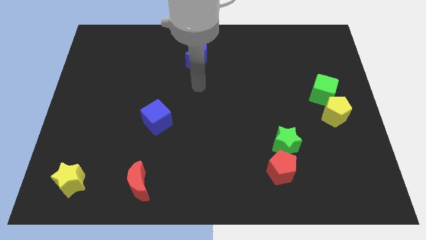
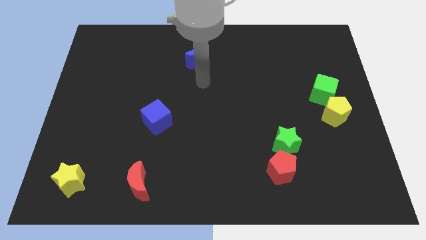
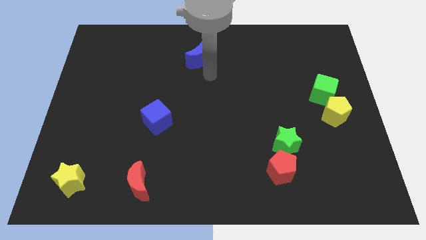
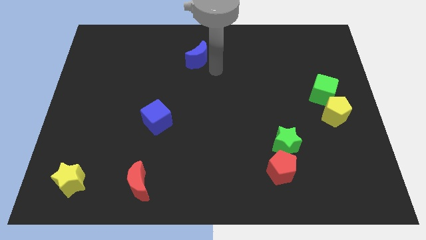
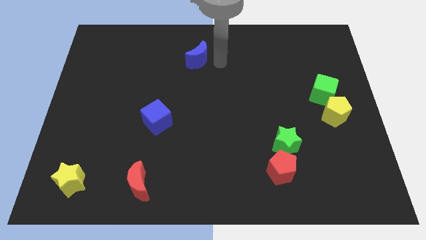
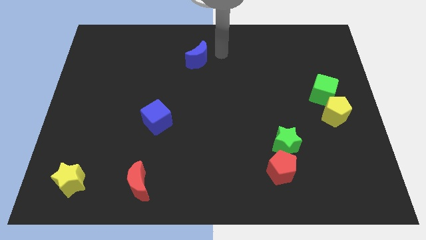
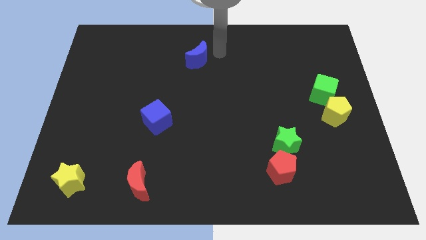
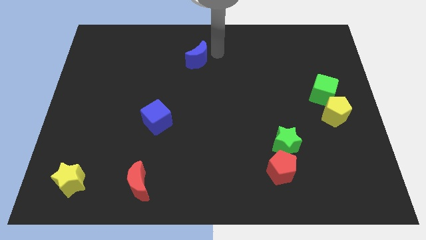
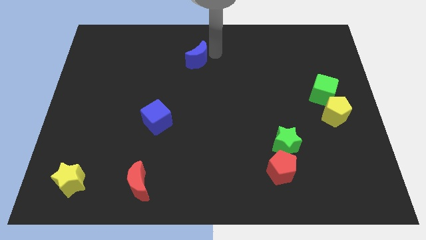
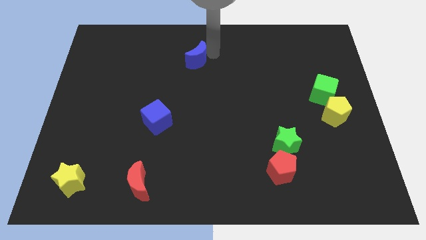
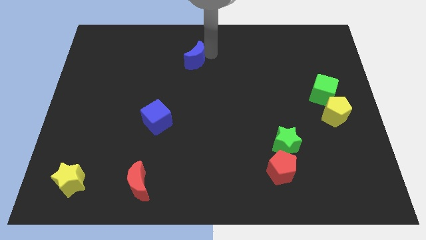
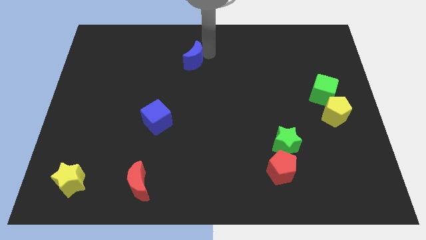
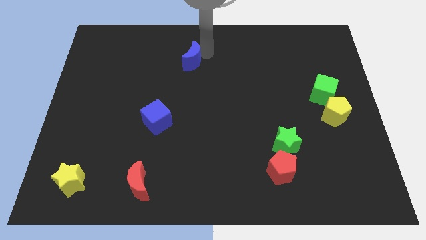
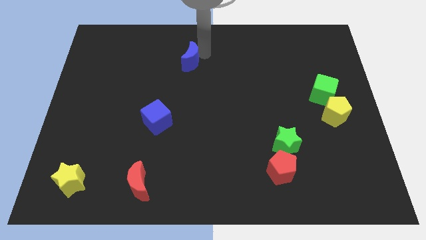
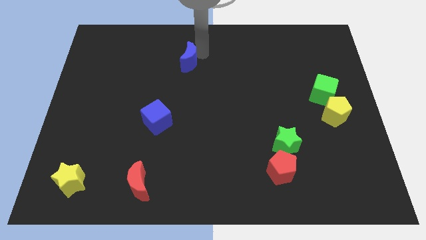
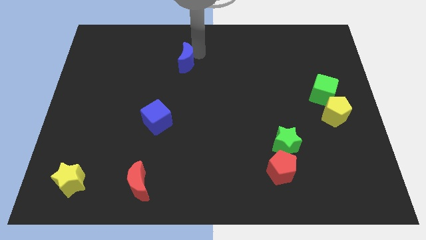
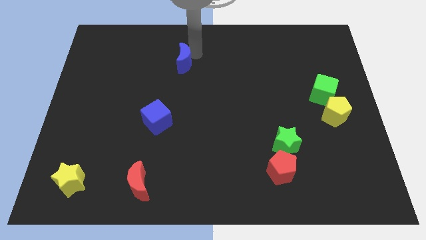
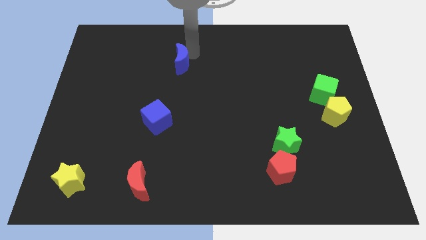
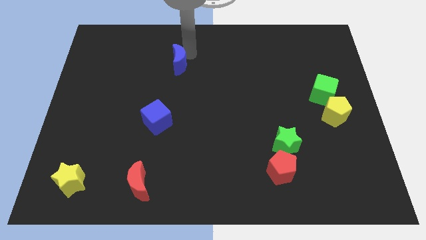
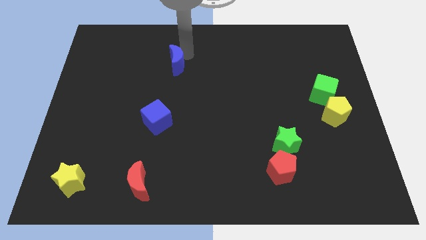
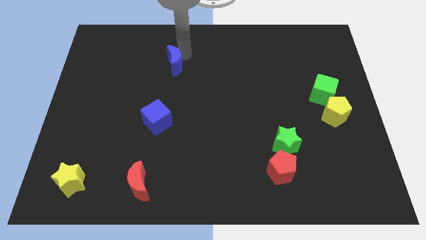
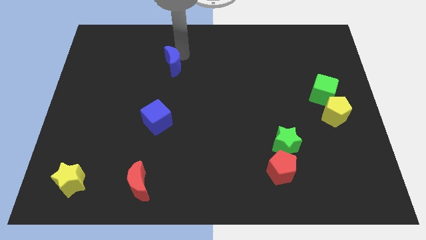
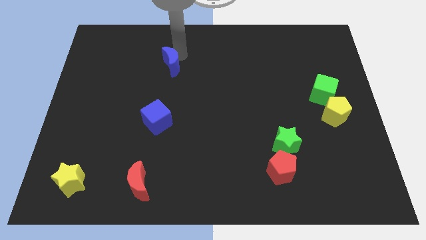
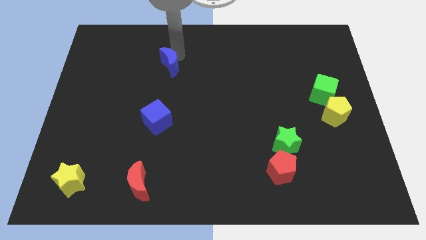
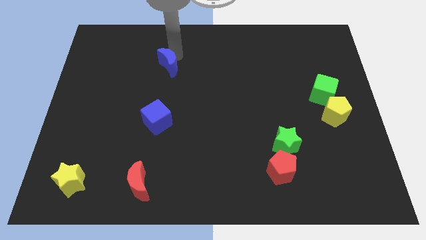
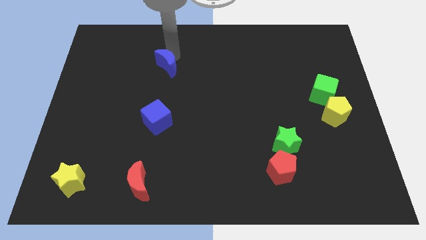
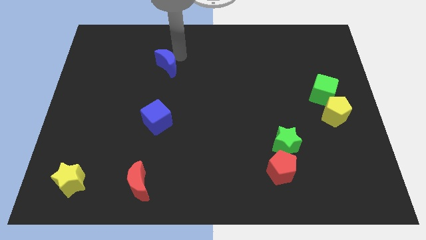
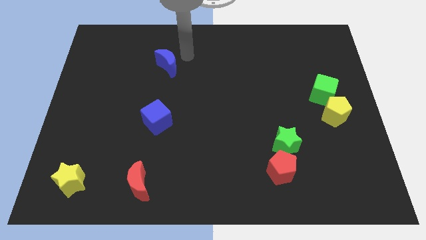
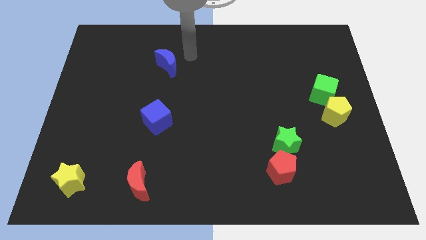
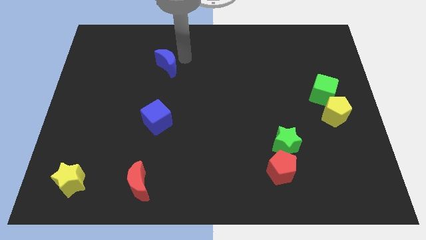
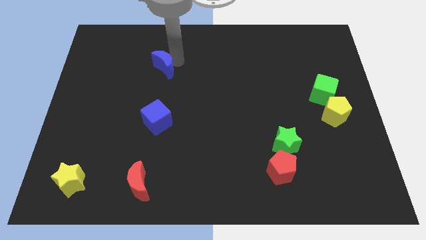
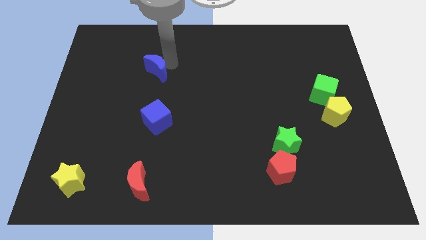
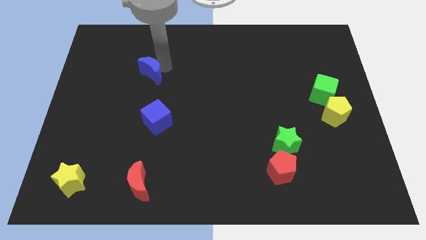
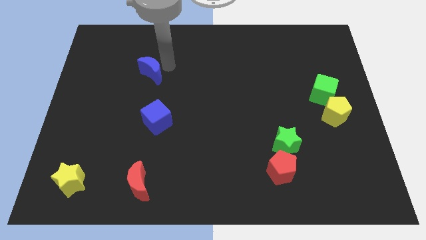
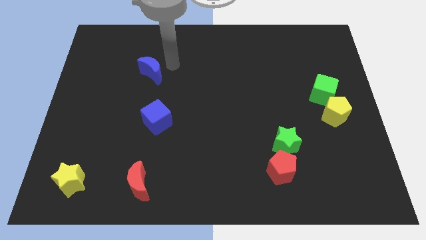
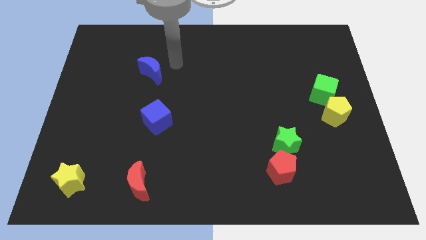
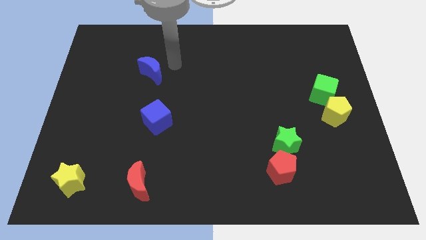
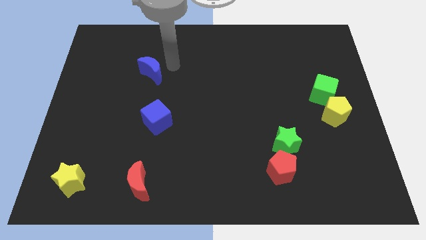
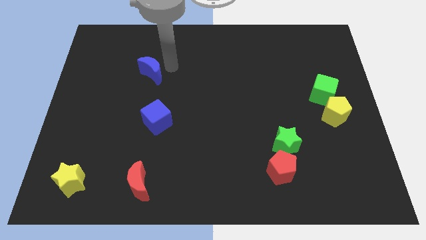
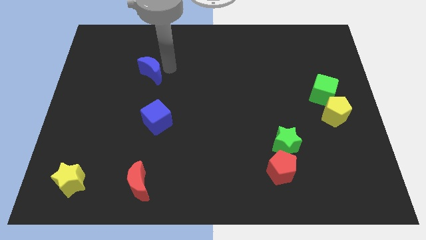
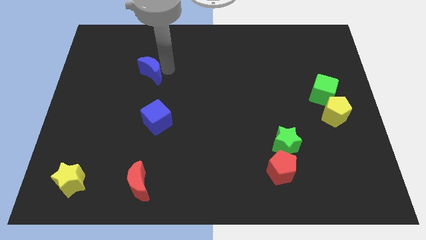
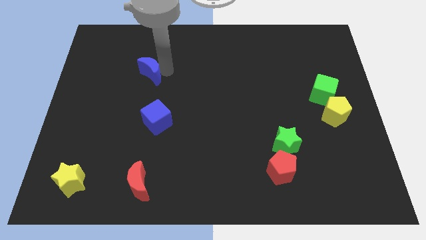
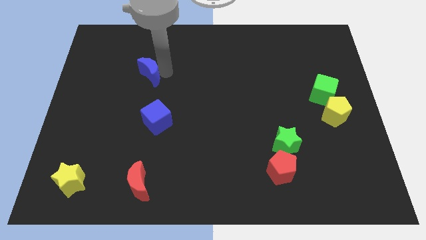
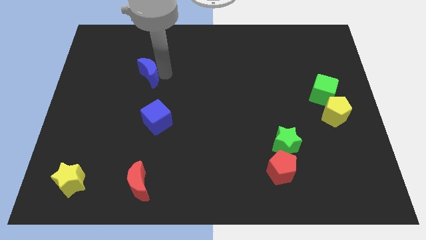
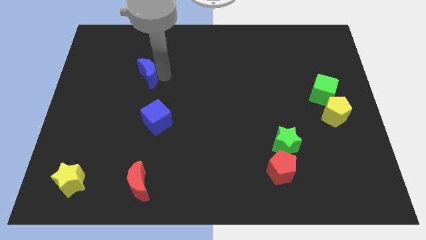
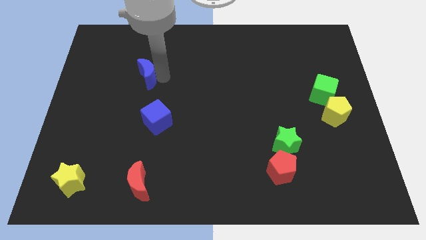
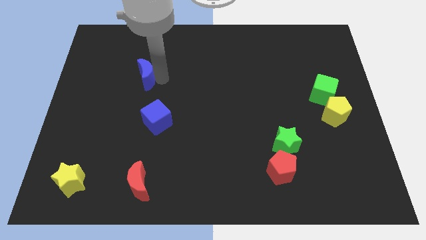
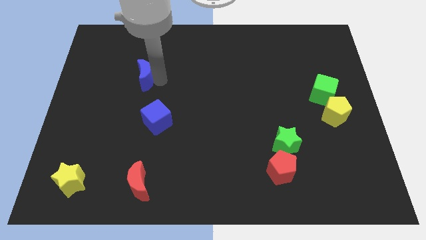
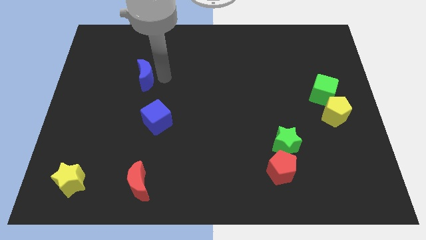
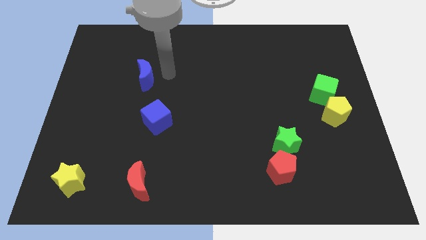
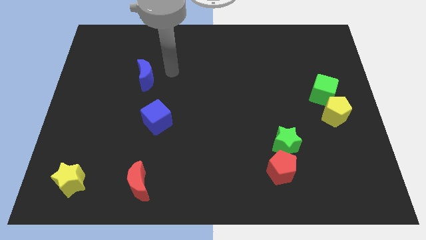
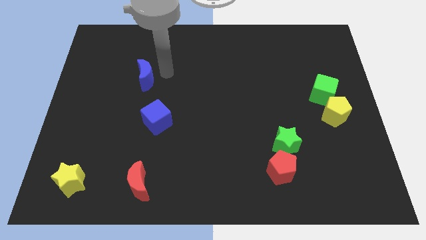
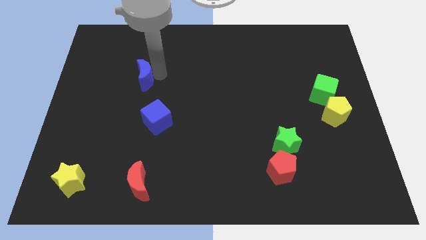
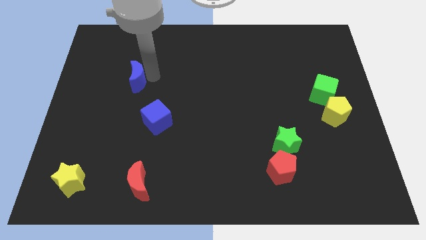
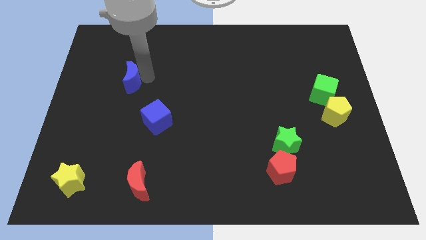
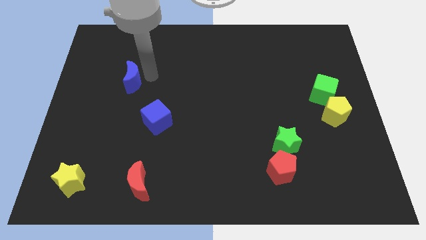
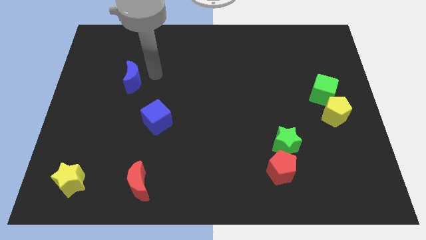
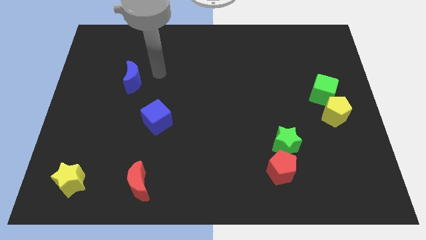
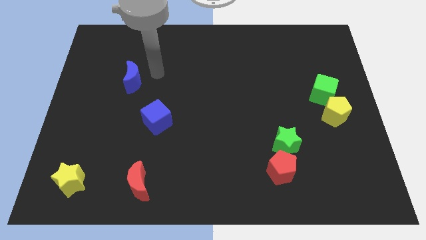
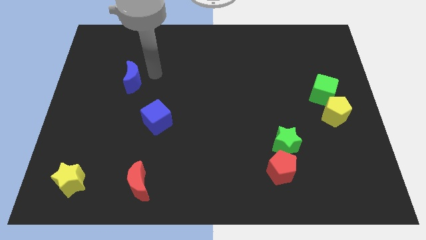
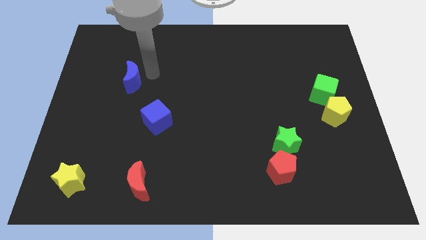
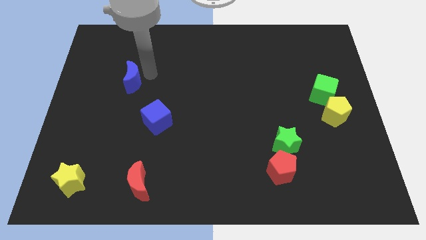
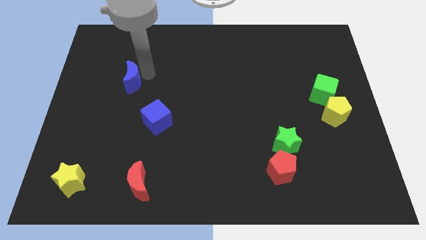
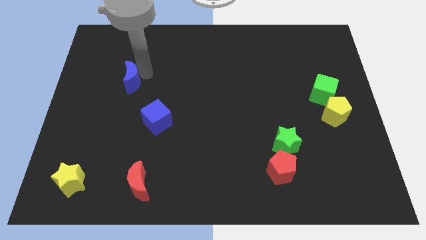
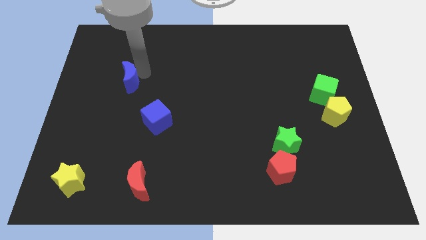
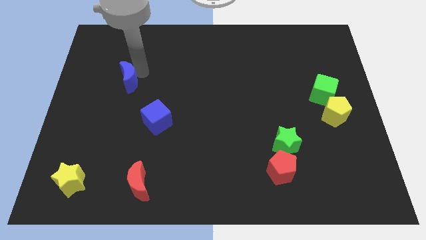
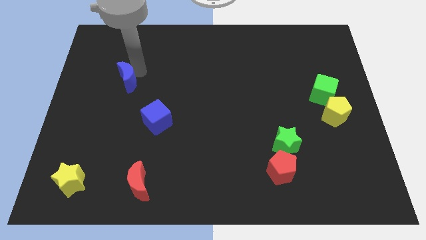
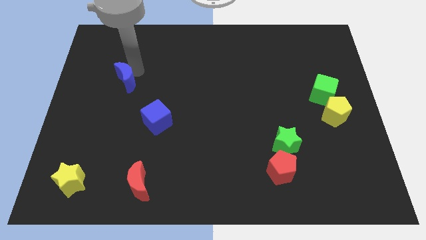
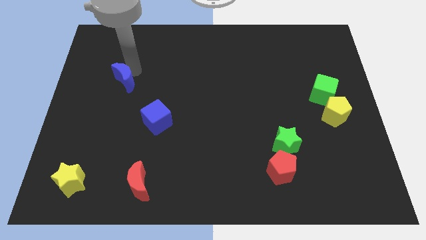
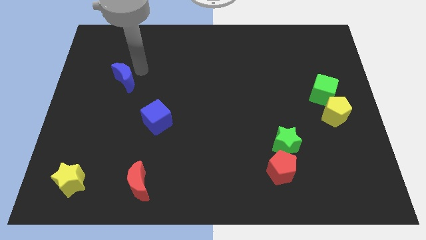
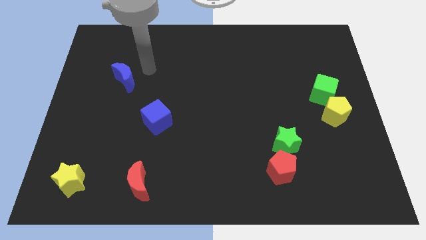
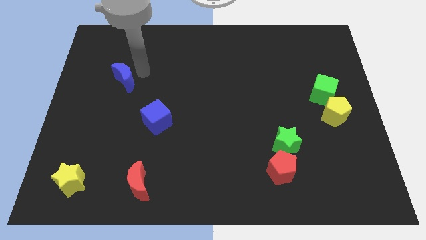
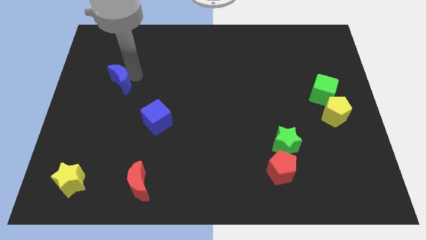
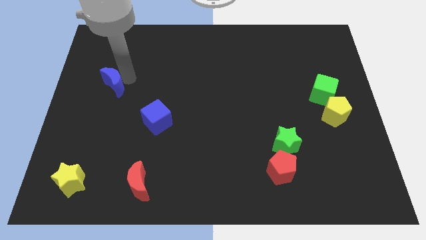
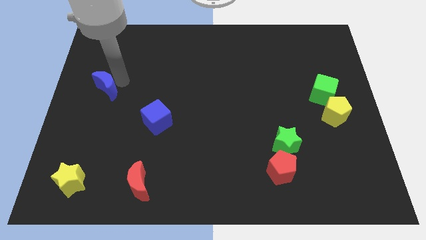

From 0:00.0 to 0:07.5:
move the blue moon to the left side

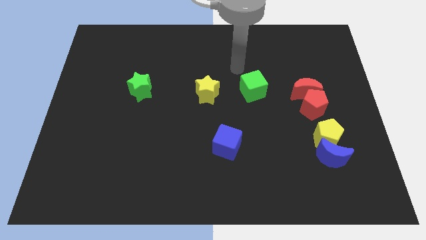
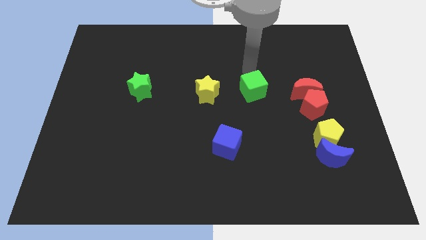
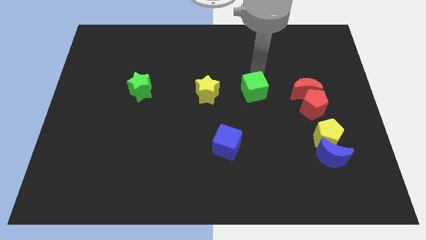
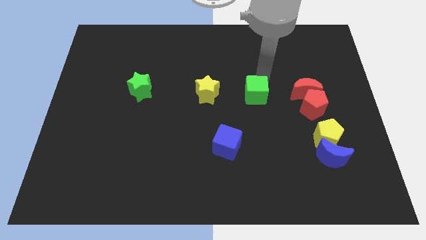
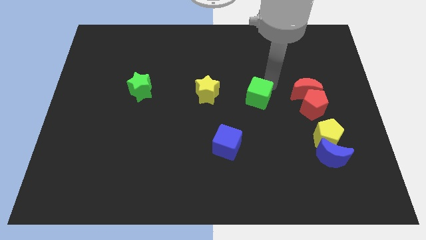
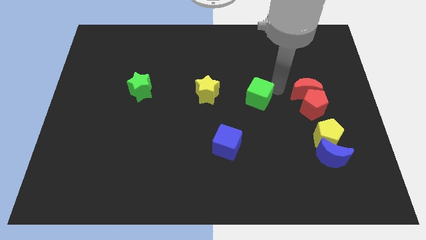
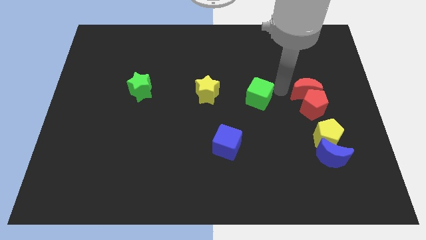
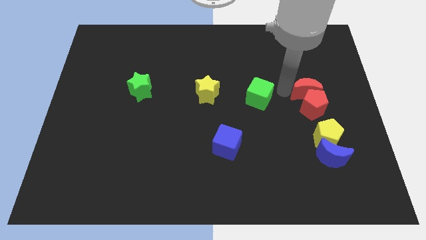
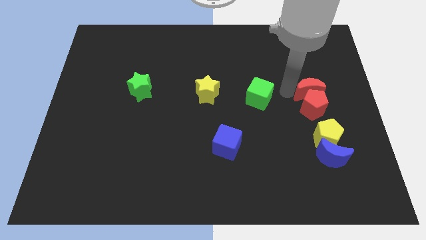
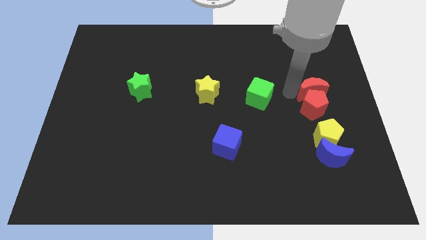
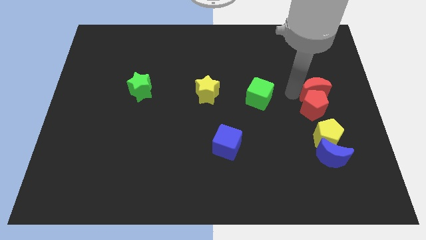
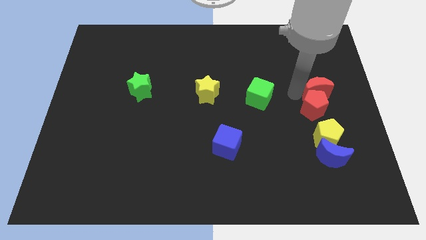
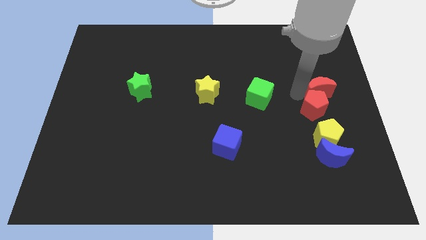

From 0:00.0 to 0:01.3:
slide the red moon to the center right
